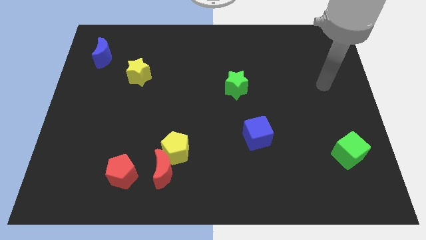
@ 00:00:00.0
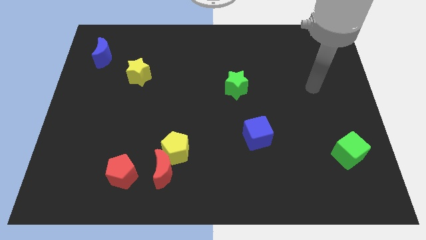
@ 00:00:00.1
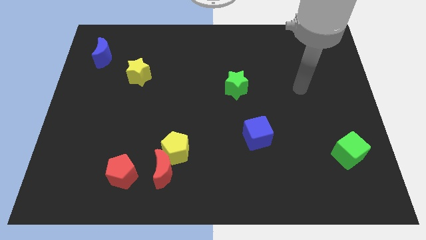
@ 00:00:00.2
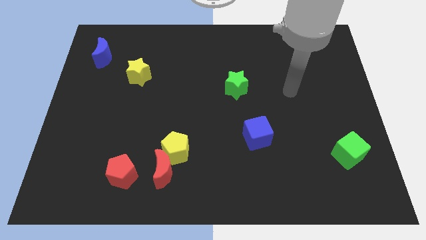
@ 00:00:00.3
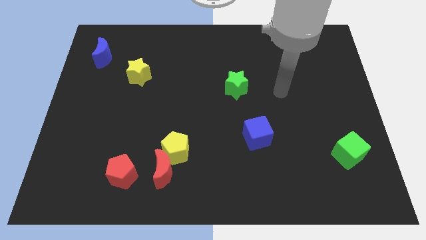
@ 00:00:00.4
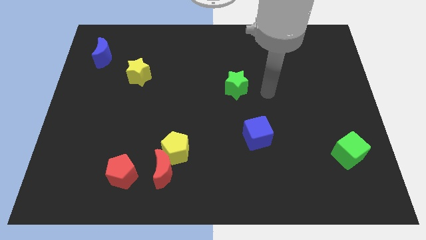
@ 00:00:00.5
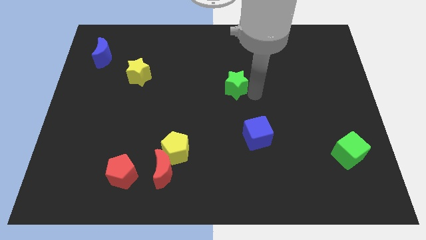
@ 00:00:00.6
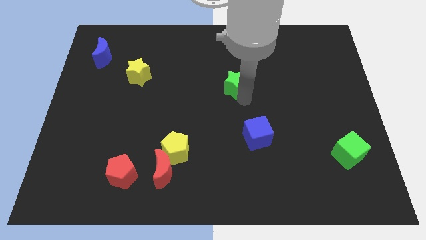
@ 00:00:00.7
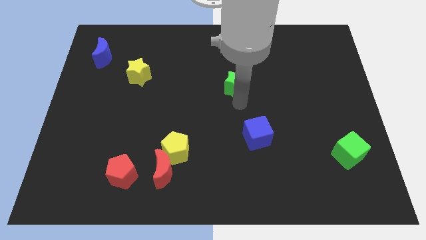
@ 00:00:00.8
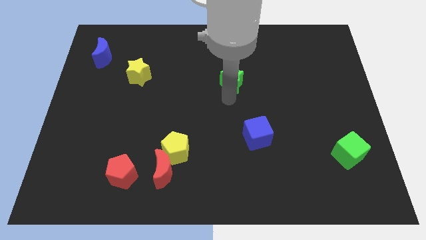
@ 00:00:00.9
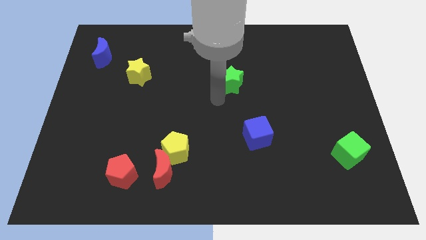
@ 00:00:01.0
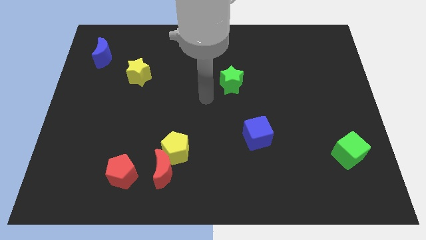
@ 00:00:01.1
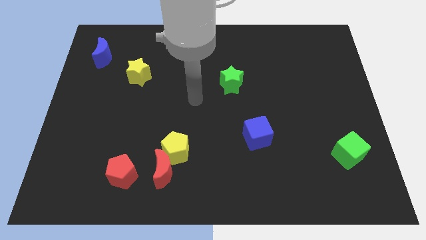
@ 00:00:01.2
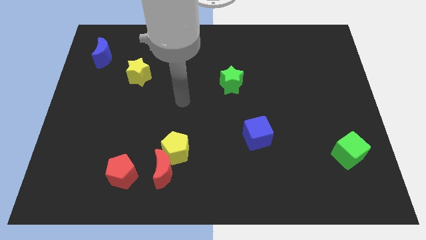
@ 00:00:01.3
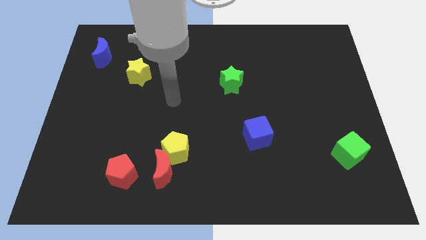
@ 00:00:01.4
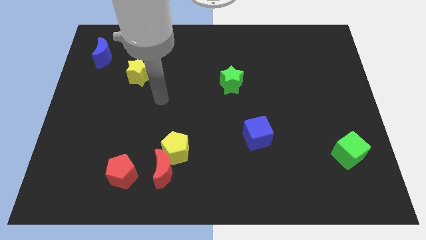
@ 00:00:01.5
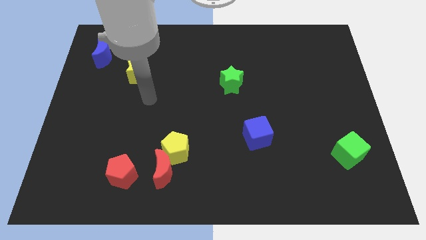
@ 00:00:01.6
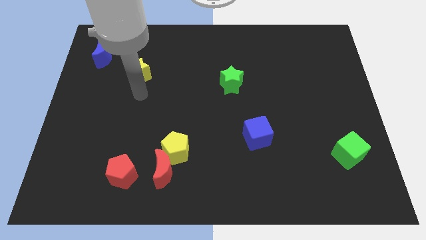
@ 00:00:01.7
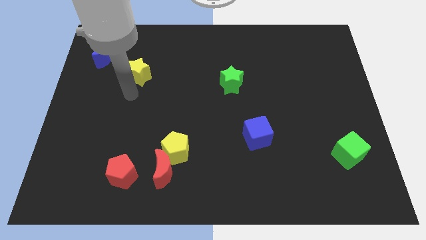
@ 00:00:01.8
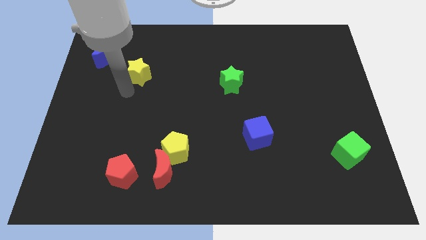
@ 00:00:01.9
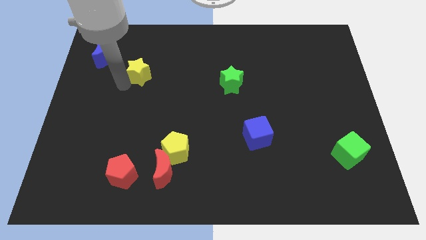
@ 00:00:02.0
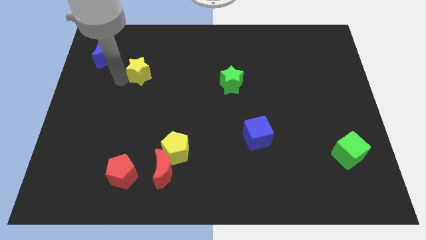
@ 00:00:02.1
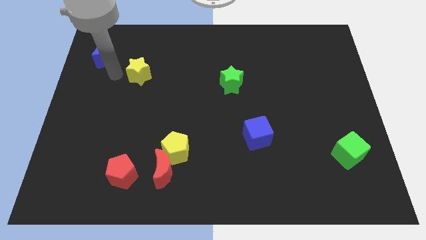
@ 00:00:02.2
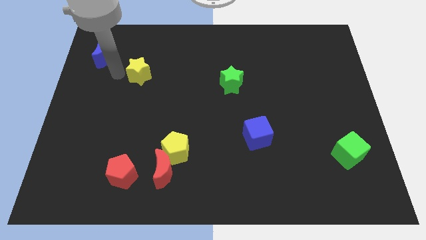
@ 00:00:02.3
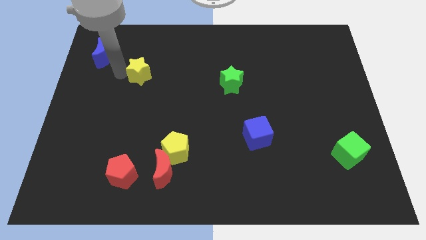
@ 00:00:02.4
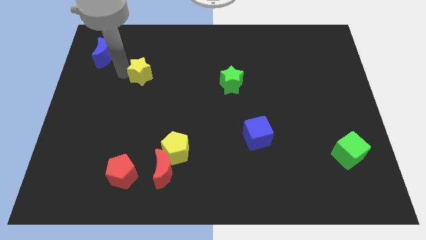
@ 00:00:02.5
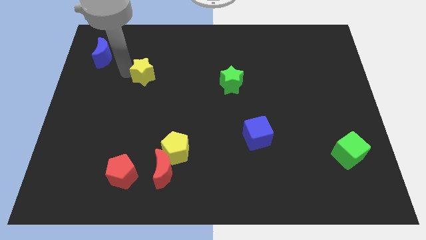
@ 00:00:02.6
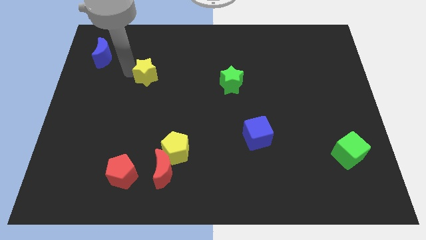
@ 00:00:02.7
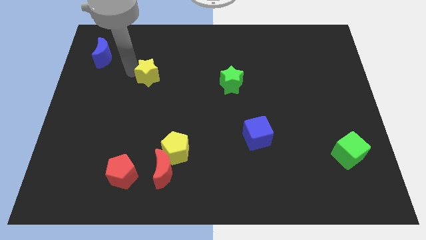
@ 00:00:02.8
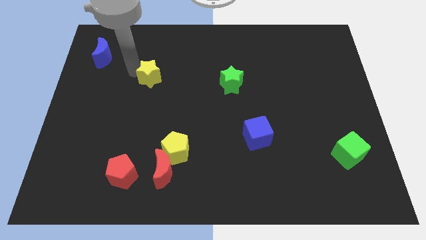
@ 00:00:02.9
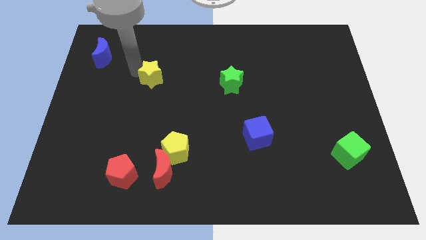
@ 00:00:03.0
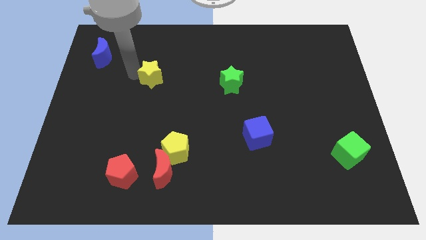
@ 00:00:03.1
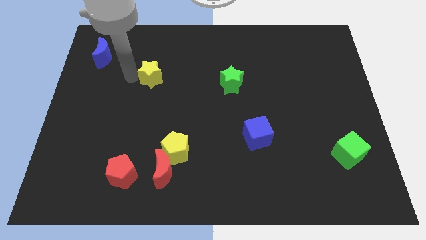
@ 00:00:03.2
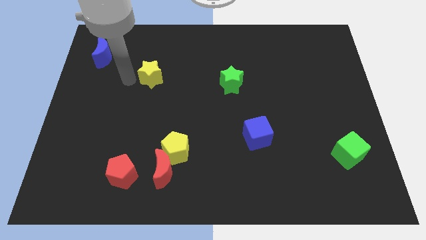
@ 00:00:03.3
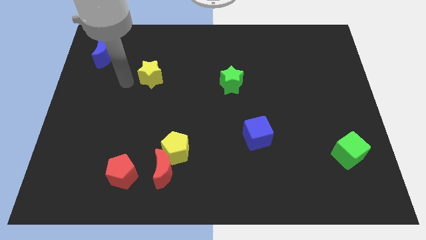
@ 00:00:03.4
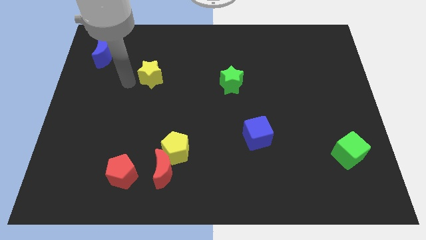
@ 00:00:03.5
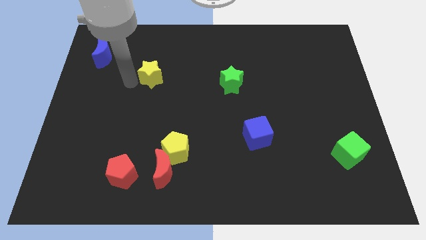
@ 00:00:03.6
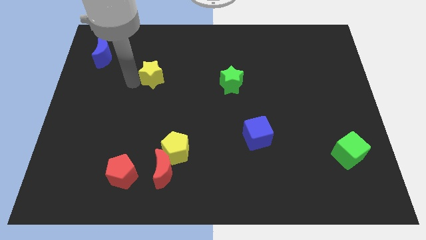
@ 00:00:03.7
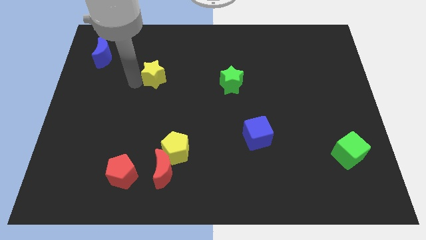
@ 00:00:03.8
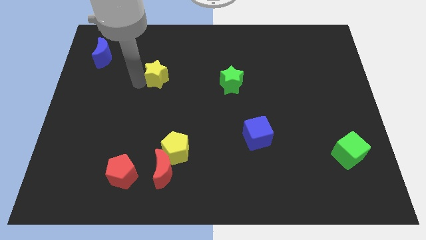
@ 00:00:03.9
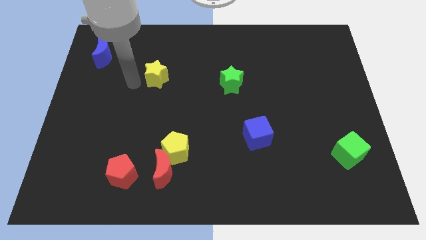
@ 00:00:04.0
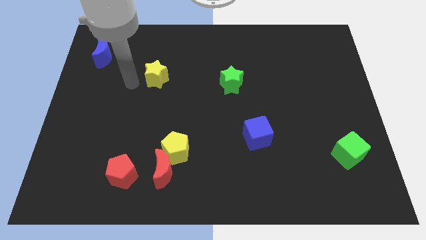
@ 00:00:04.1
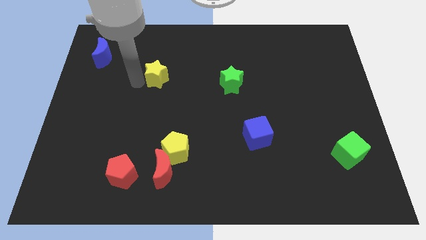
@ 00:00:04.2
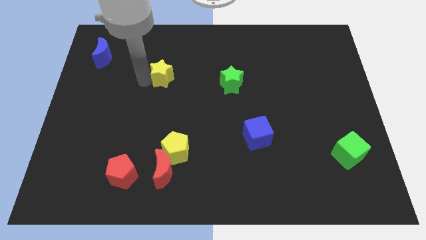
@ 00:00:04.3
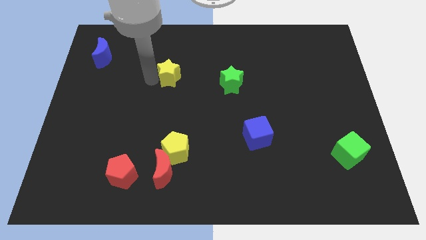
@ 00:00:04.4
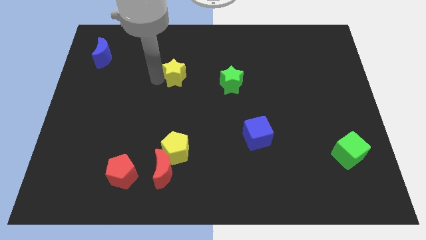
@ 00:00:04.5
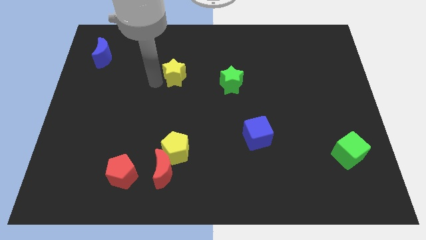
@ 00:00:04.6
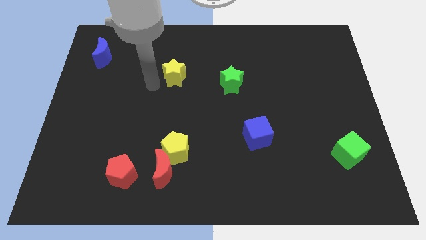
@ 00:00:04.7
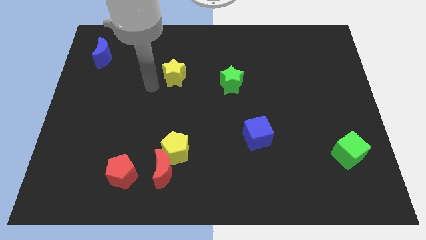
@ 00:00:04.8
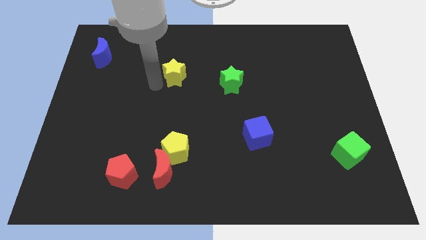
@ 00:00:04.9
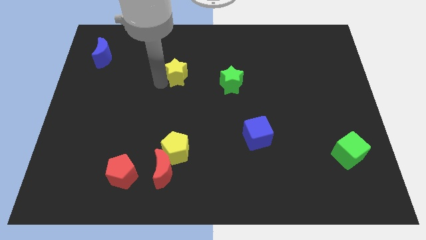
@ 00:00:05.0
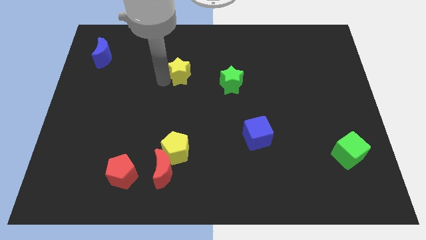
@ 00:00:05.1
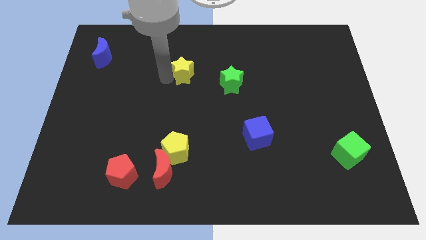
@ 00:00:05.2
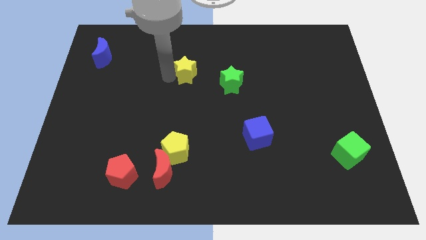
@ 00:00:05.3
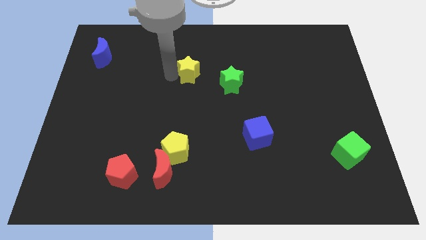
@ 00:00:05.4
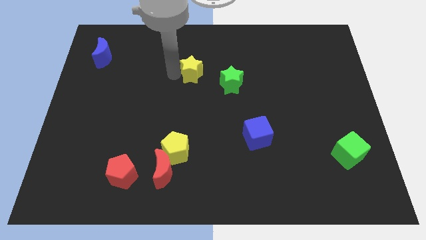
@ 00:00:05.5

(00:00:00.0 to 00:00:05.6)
push the yellow star to the top left of the green star

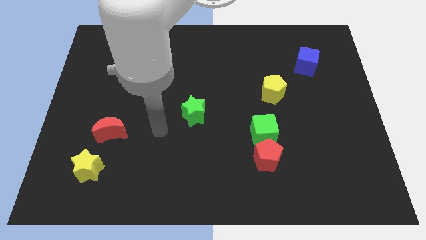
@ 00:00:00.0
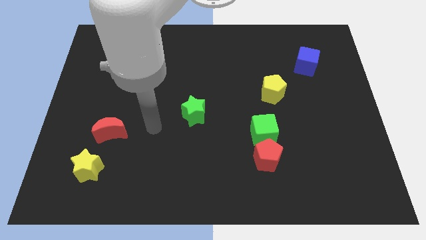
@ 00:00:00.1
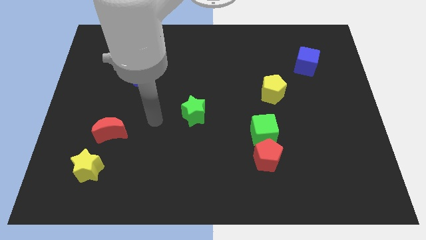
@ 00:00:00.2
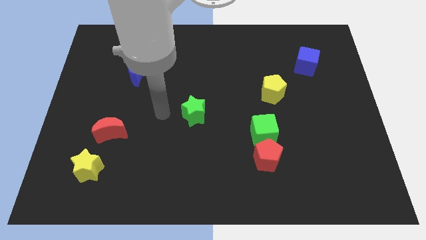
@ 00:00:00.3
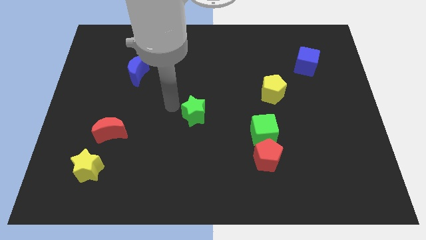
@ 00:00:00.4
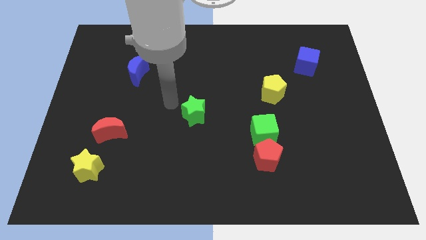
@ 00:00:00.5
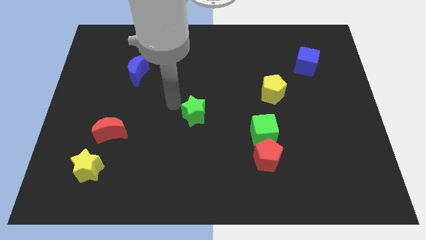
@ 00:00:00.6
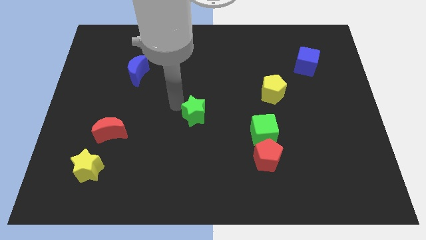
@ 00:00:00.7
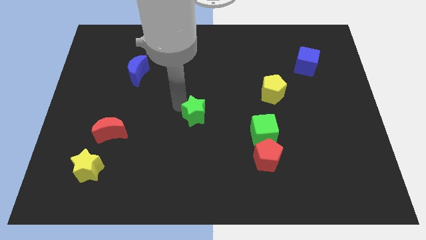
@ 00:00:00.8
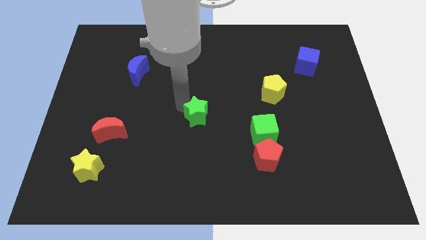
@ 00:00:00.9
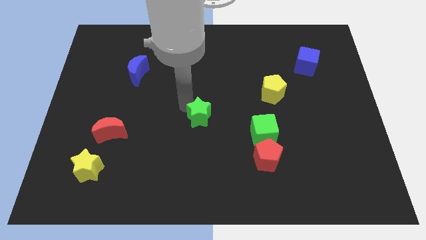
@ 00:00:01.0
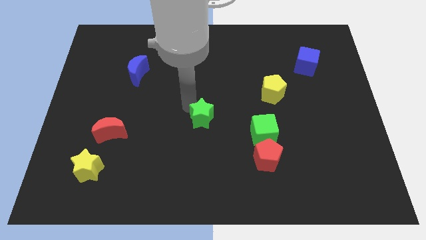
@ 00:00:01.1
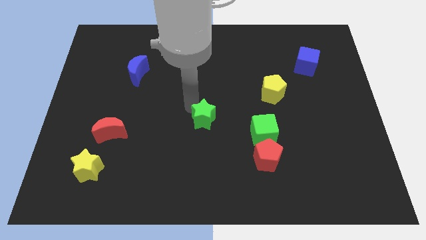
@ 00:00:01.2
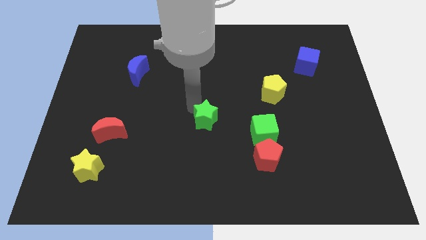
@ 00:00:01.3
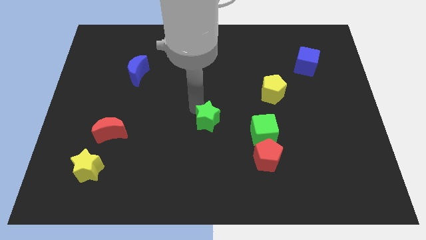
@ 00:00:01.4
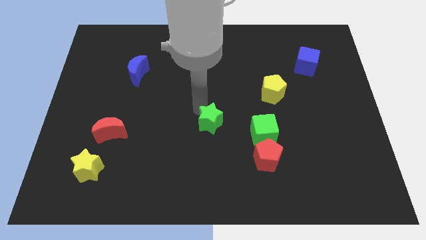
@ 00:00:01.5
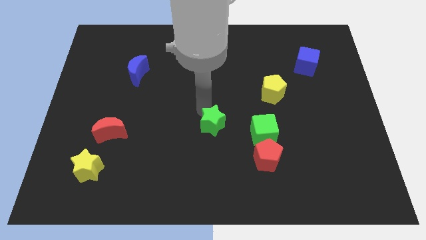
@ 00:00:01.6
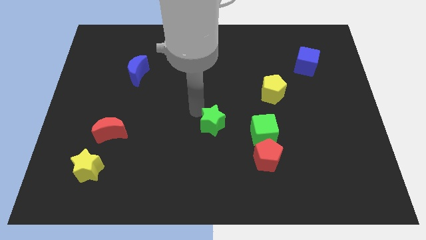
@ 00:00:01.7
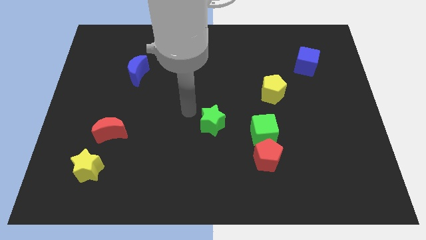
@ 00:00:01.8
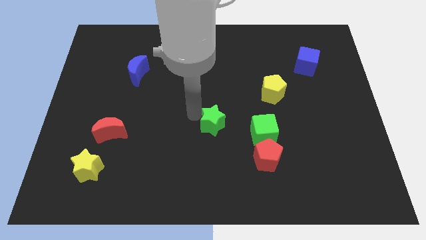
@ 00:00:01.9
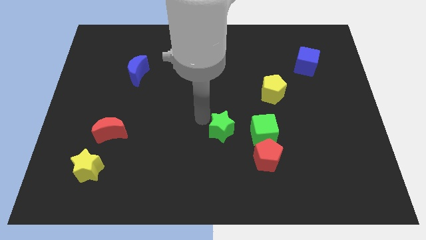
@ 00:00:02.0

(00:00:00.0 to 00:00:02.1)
push the green star diagonally up and to the left of the red pentagon
